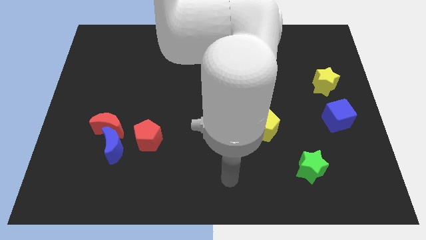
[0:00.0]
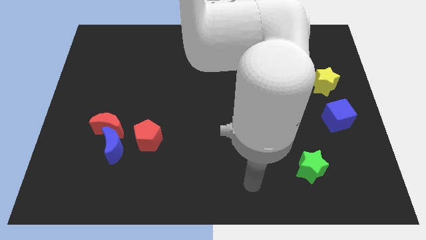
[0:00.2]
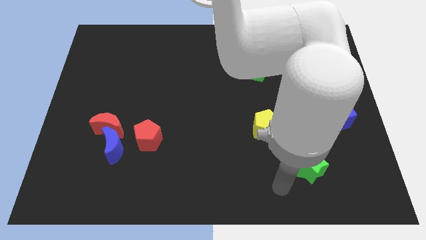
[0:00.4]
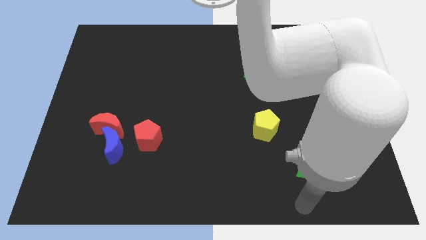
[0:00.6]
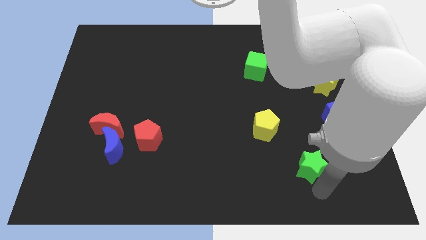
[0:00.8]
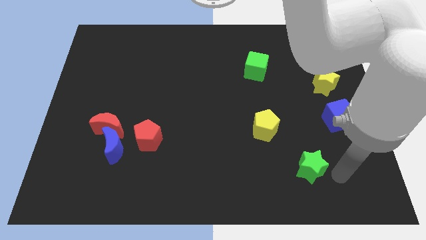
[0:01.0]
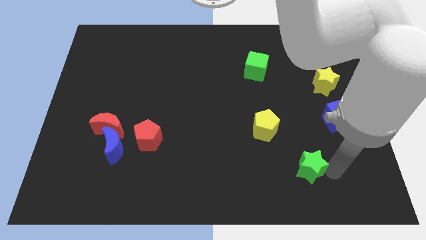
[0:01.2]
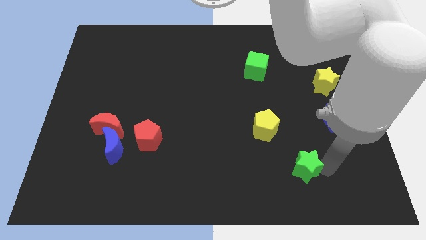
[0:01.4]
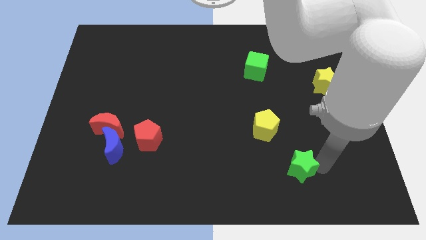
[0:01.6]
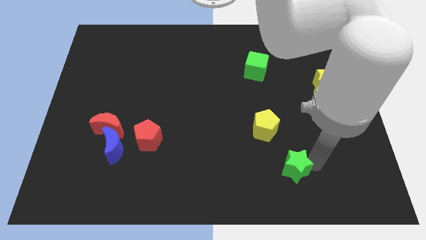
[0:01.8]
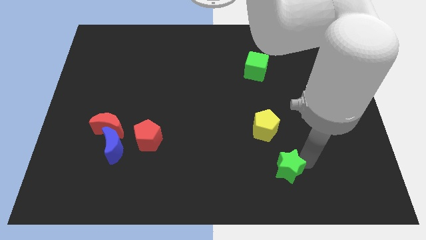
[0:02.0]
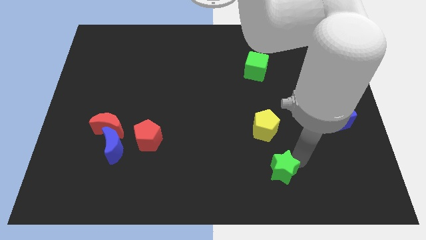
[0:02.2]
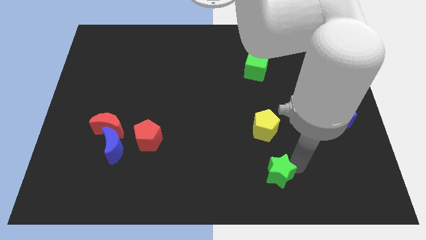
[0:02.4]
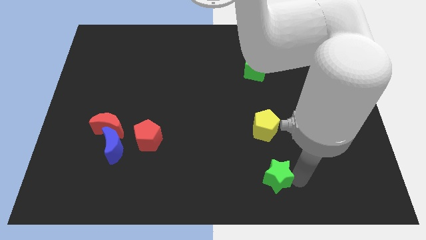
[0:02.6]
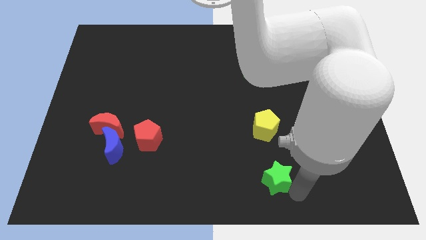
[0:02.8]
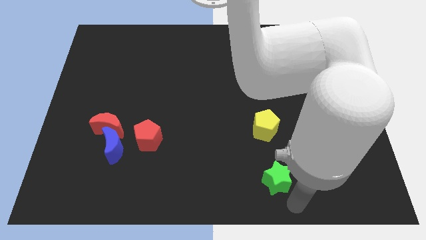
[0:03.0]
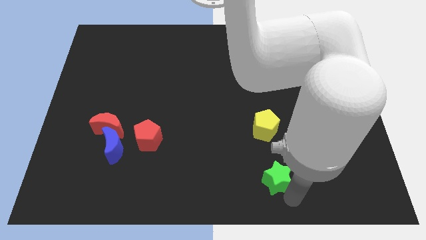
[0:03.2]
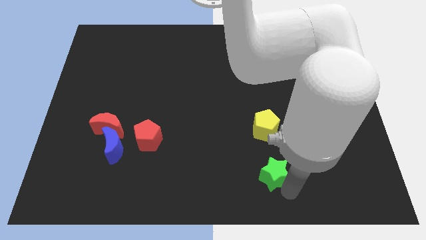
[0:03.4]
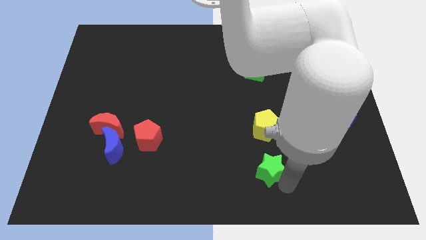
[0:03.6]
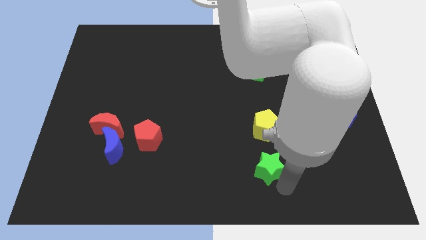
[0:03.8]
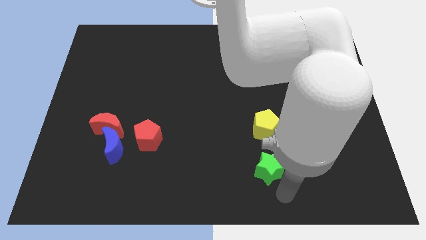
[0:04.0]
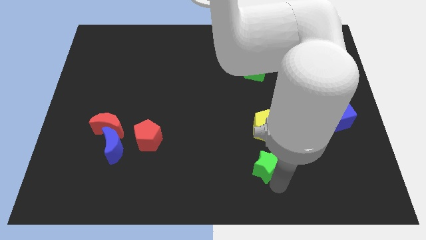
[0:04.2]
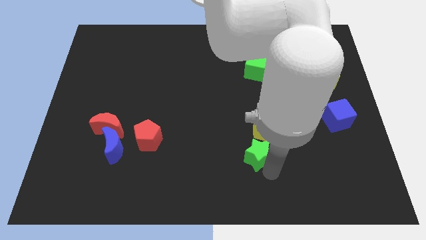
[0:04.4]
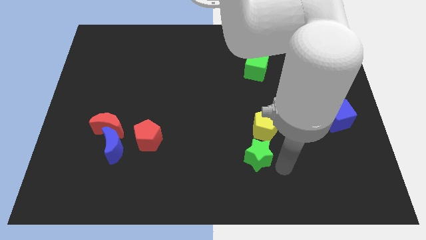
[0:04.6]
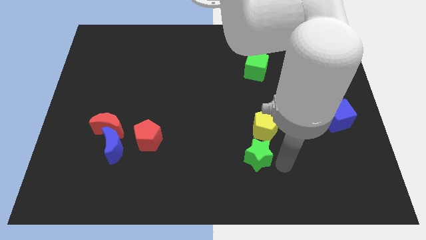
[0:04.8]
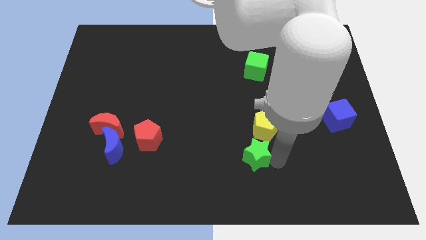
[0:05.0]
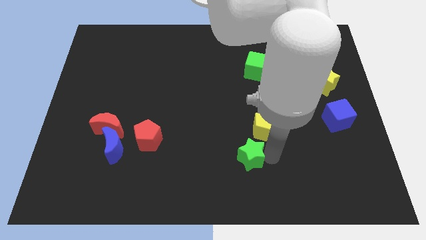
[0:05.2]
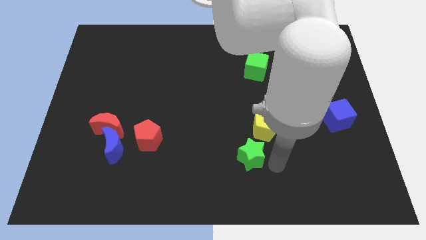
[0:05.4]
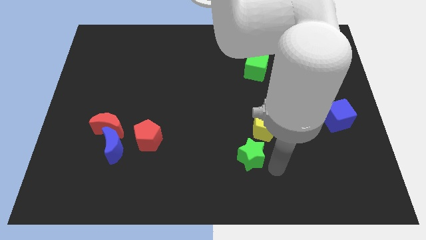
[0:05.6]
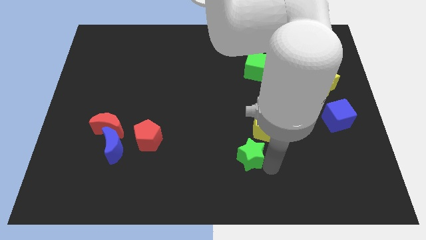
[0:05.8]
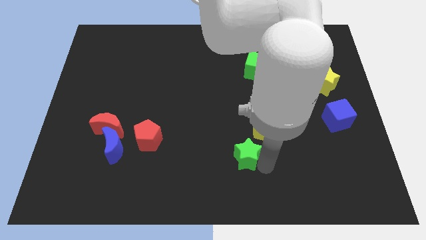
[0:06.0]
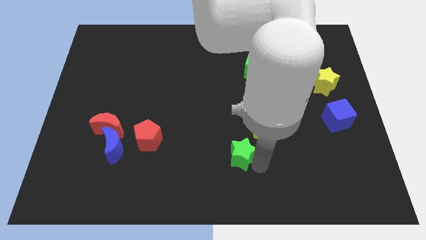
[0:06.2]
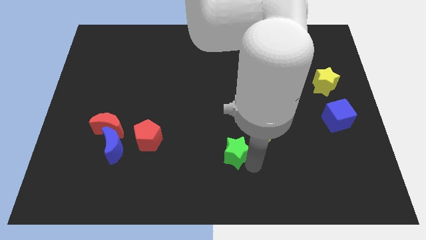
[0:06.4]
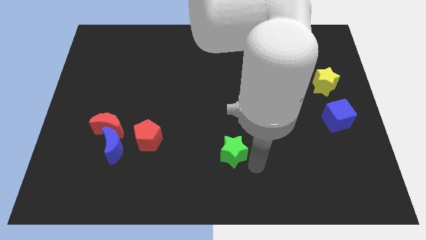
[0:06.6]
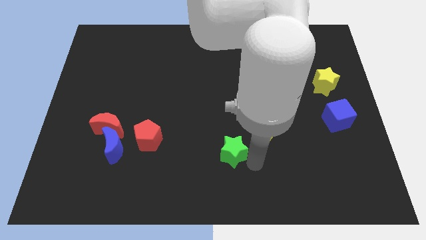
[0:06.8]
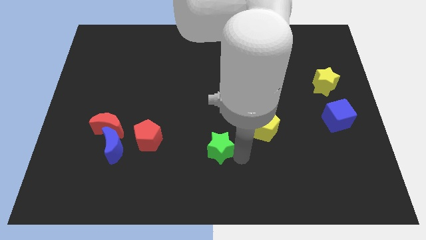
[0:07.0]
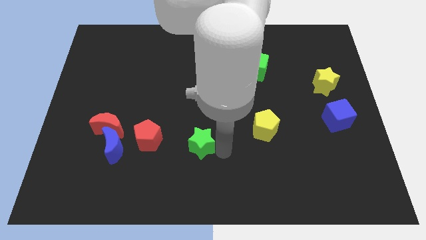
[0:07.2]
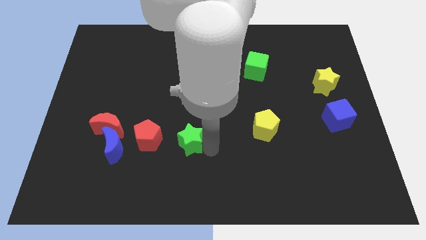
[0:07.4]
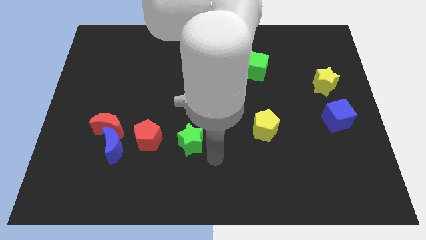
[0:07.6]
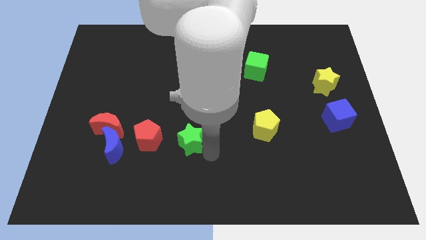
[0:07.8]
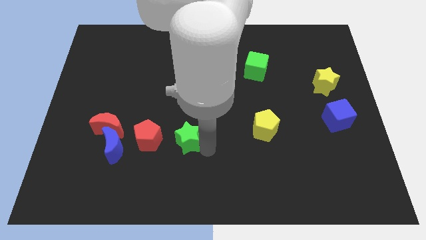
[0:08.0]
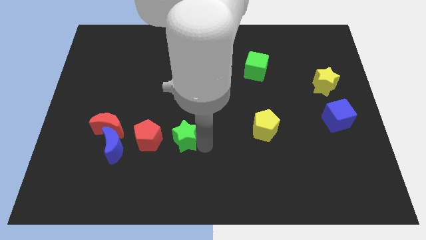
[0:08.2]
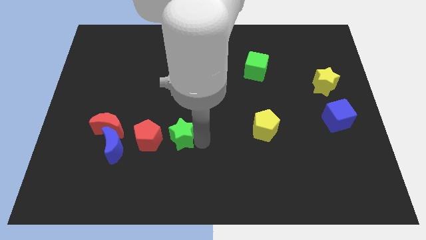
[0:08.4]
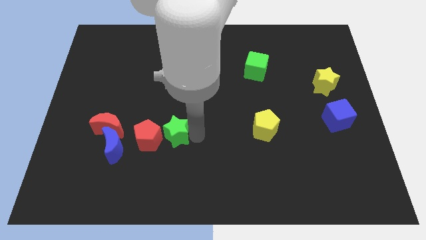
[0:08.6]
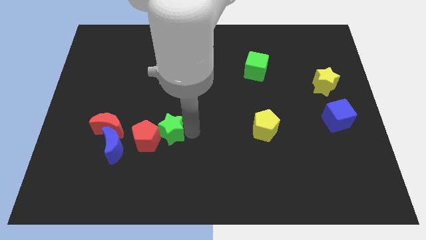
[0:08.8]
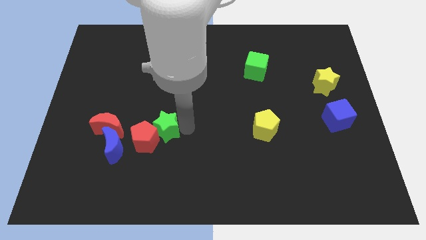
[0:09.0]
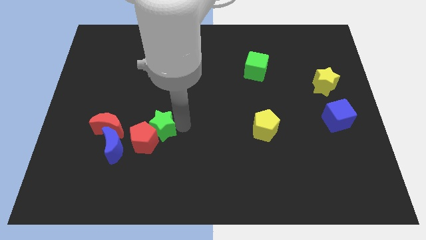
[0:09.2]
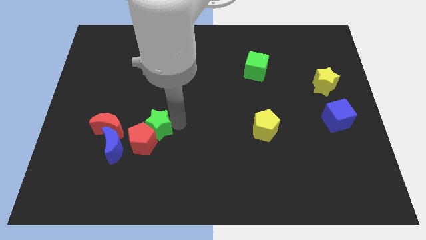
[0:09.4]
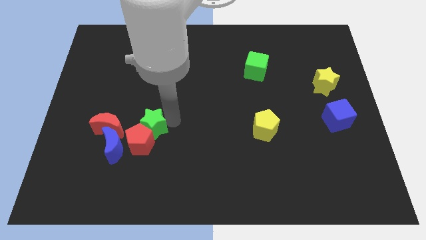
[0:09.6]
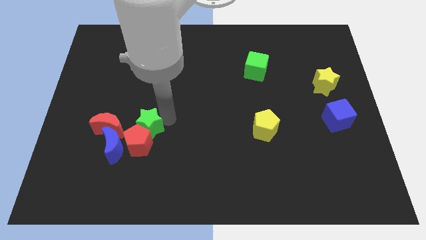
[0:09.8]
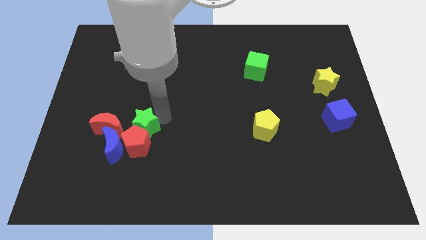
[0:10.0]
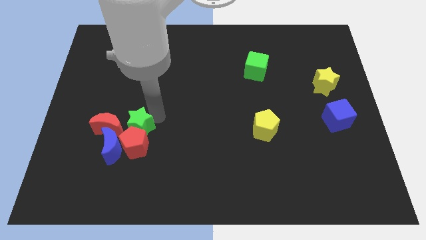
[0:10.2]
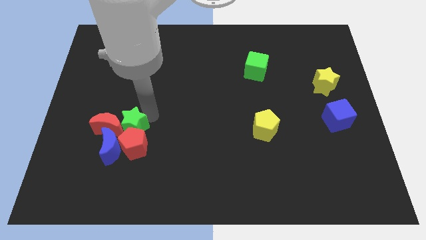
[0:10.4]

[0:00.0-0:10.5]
push the green star towards the red moon

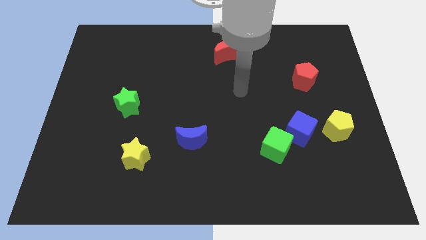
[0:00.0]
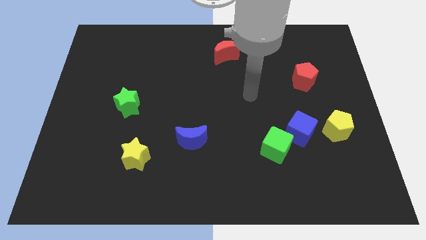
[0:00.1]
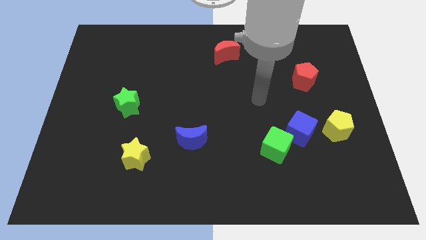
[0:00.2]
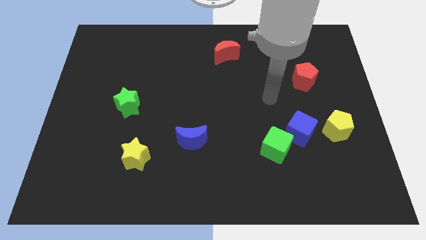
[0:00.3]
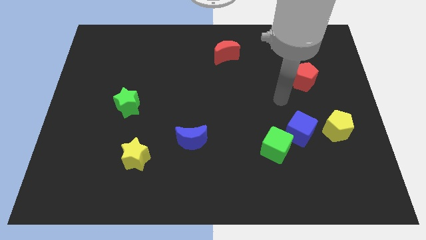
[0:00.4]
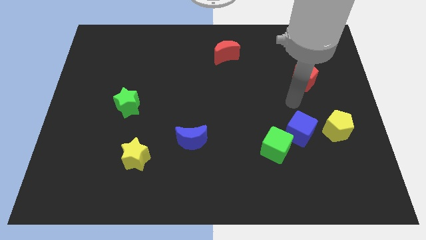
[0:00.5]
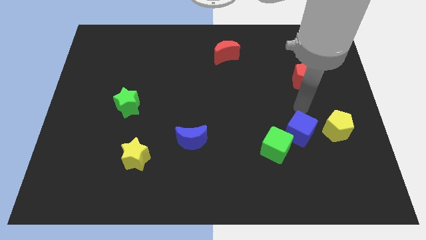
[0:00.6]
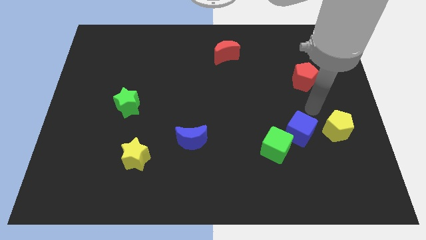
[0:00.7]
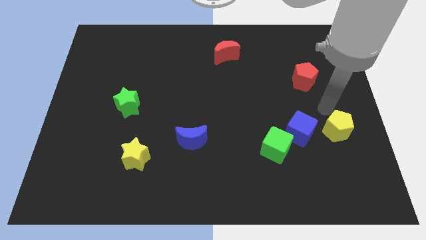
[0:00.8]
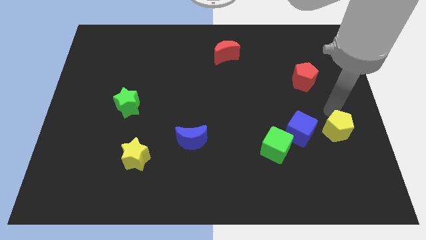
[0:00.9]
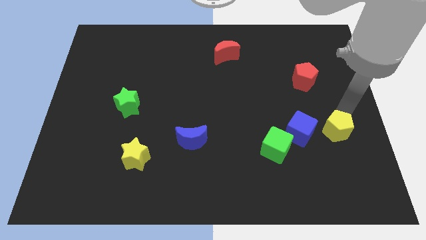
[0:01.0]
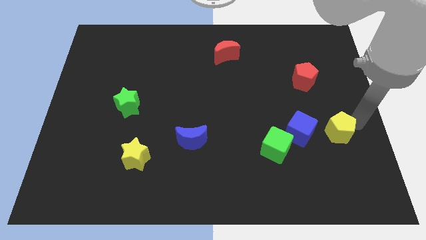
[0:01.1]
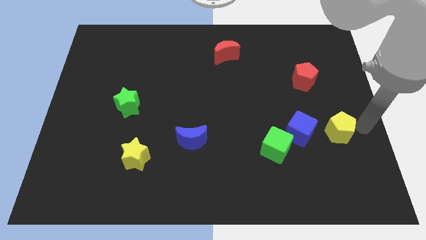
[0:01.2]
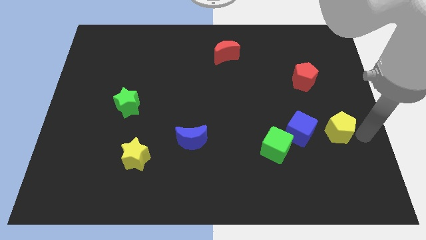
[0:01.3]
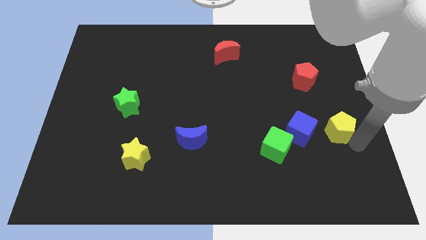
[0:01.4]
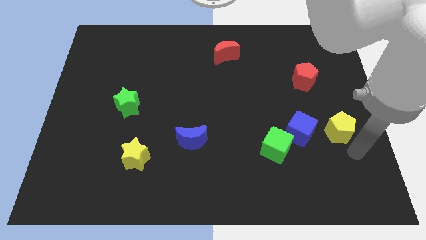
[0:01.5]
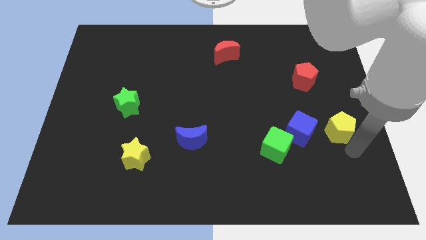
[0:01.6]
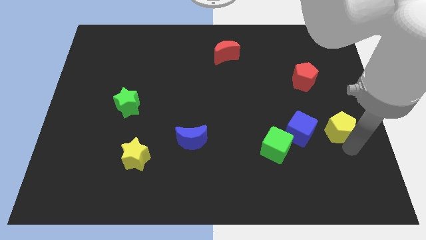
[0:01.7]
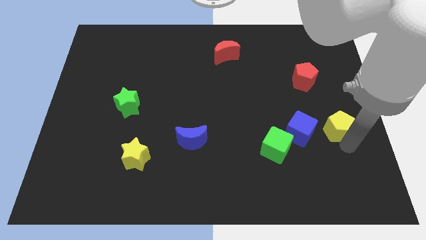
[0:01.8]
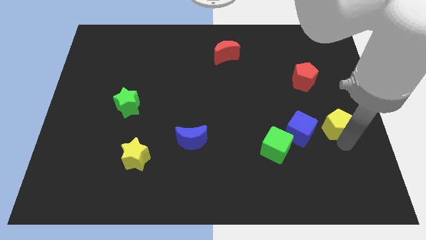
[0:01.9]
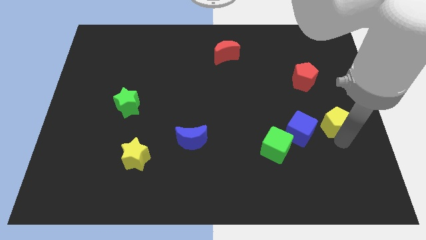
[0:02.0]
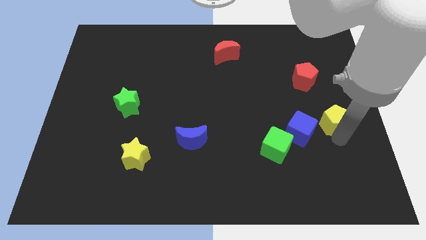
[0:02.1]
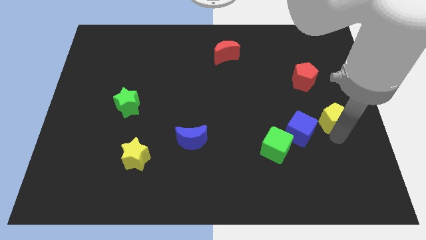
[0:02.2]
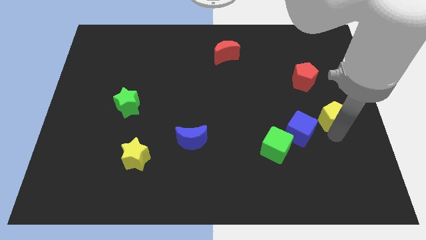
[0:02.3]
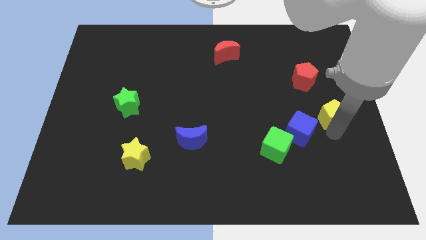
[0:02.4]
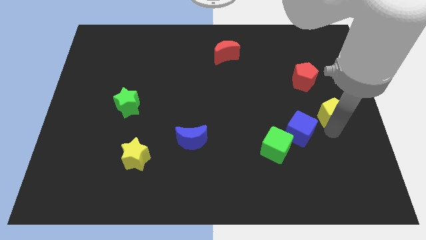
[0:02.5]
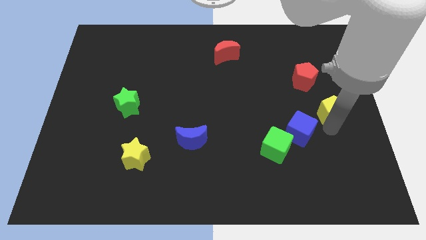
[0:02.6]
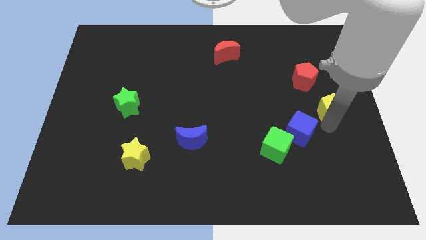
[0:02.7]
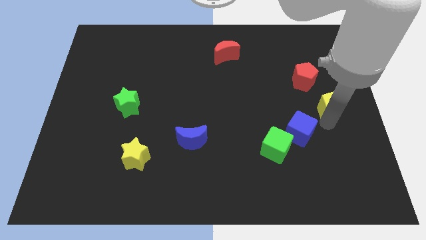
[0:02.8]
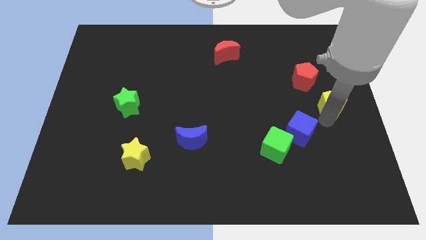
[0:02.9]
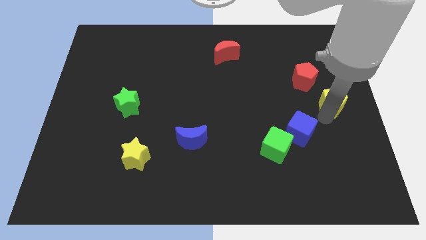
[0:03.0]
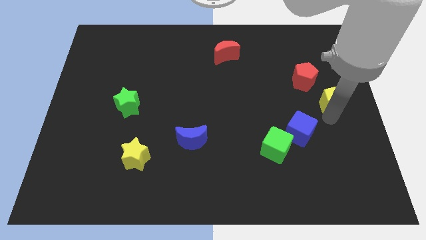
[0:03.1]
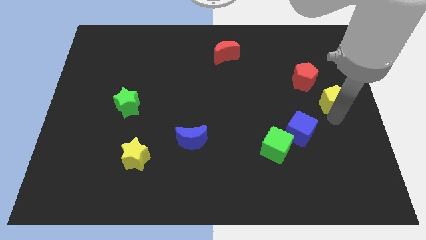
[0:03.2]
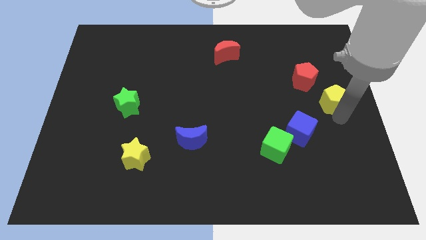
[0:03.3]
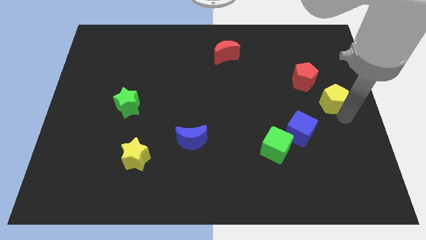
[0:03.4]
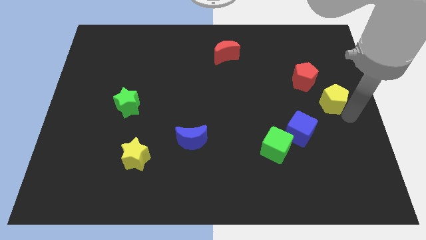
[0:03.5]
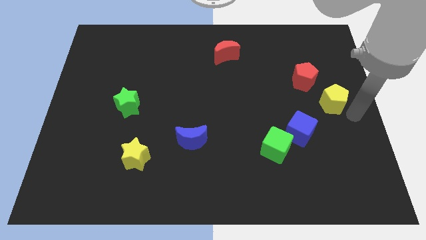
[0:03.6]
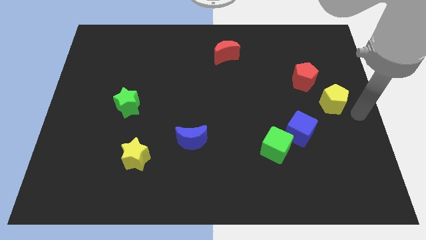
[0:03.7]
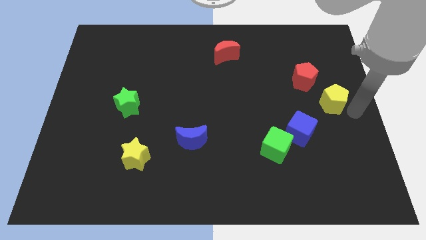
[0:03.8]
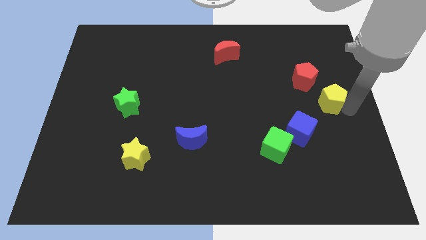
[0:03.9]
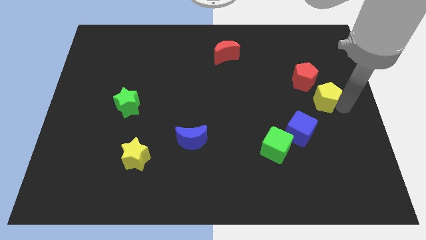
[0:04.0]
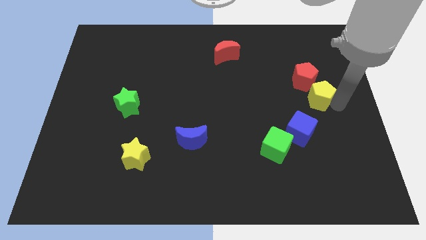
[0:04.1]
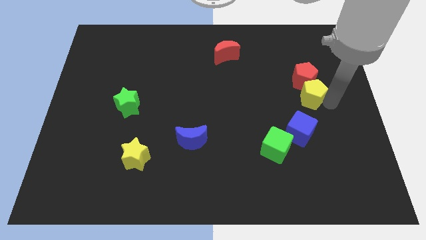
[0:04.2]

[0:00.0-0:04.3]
push the yellow pentagon to the red pentagon
